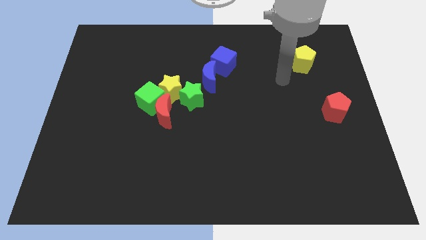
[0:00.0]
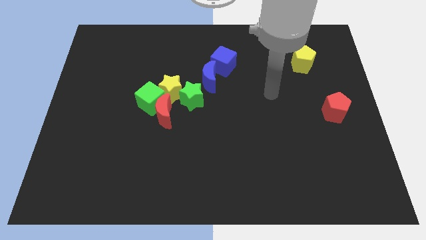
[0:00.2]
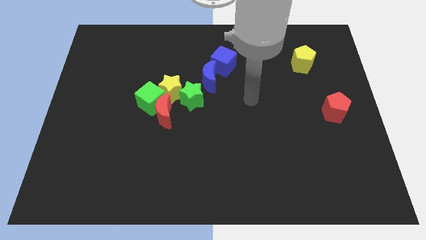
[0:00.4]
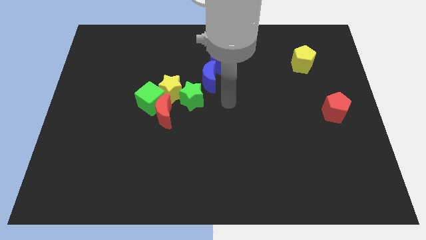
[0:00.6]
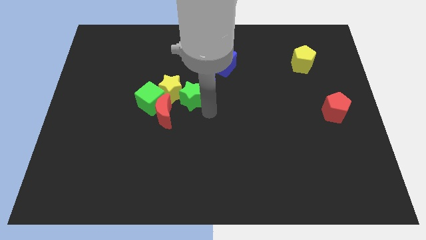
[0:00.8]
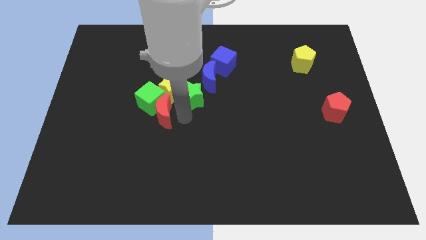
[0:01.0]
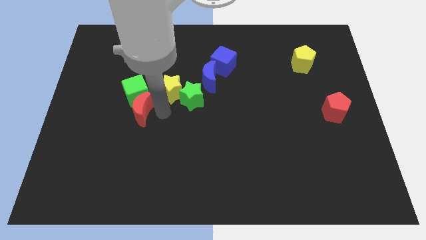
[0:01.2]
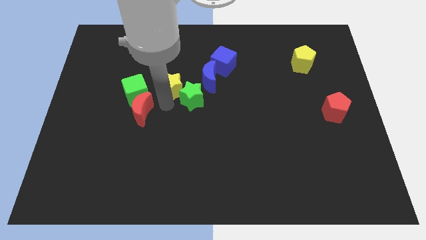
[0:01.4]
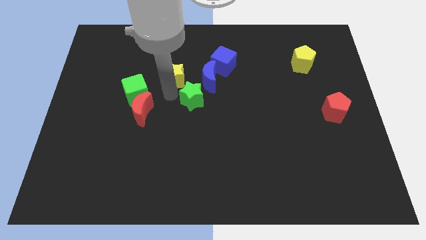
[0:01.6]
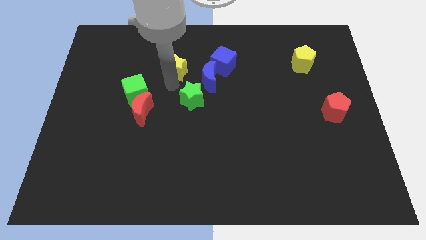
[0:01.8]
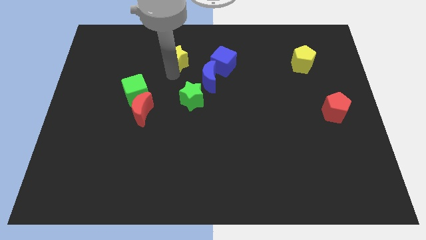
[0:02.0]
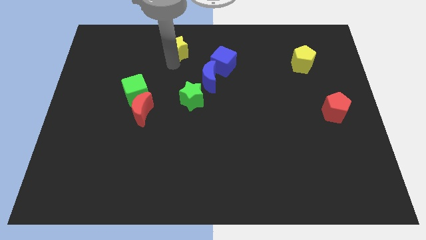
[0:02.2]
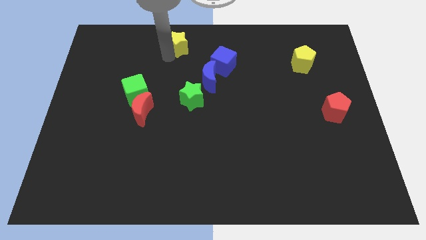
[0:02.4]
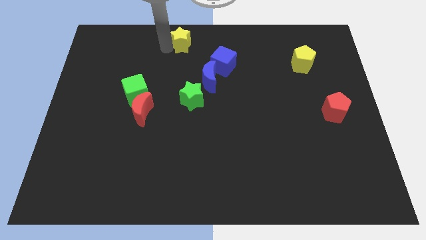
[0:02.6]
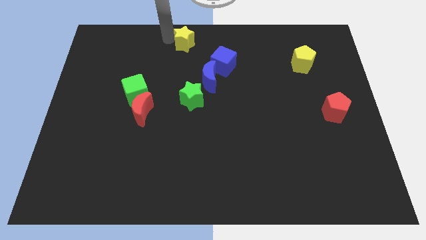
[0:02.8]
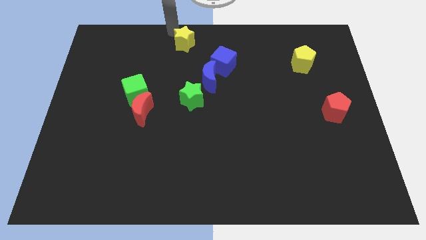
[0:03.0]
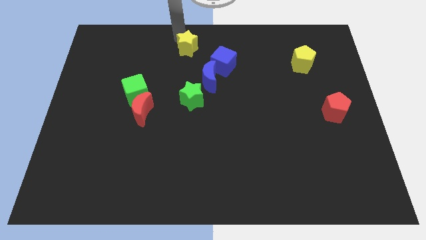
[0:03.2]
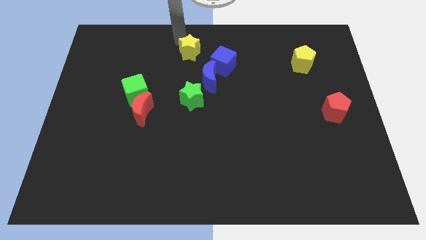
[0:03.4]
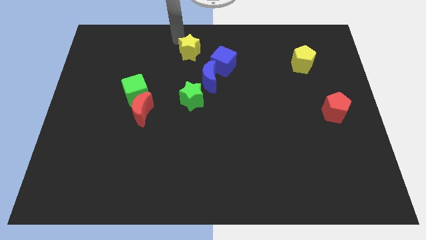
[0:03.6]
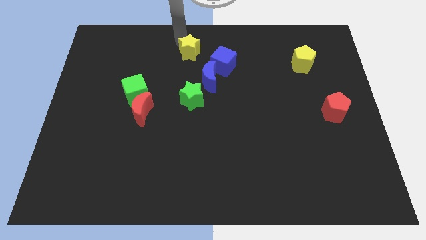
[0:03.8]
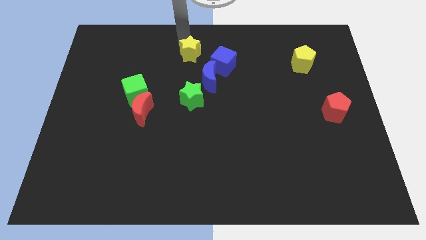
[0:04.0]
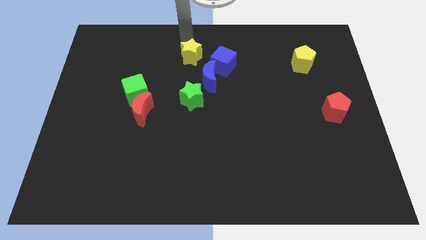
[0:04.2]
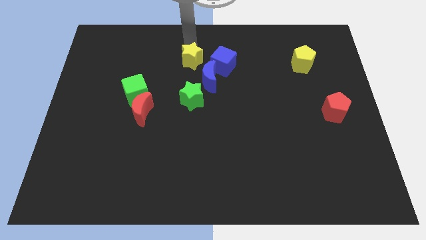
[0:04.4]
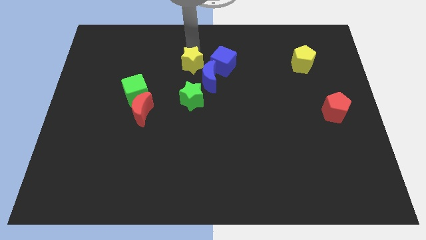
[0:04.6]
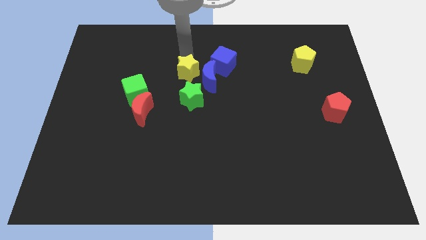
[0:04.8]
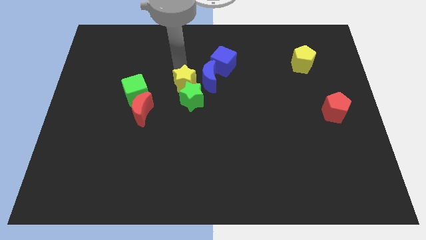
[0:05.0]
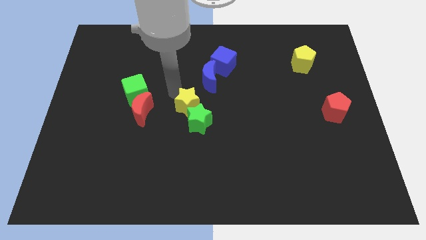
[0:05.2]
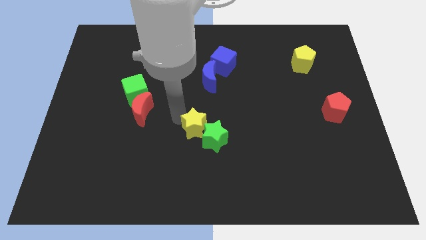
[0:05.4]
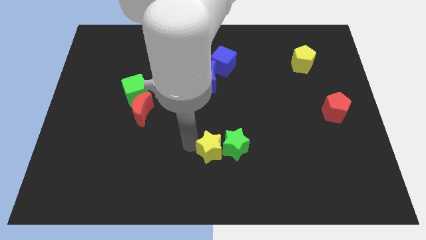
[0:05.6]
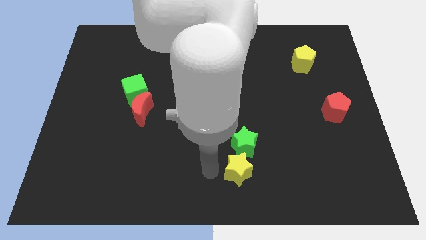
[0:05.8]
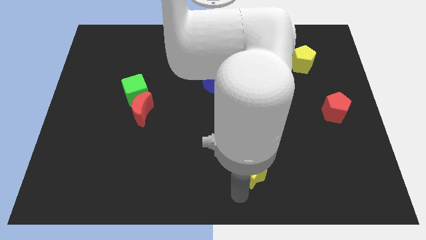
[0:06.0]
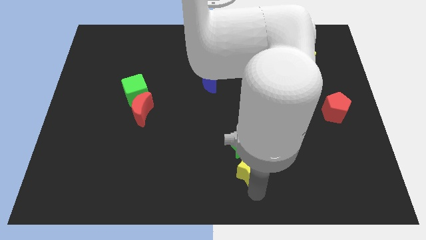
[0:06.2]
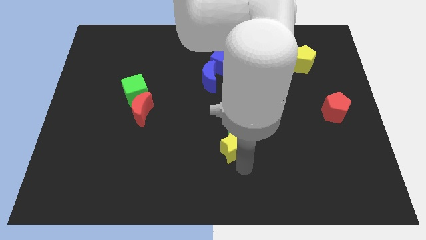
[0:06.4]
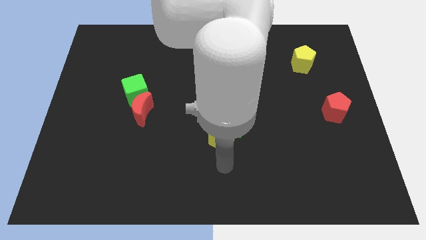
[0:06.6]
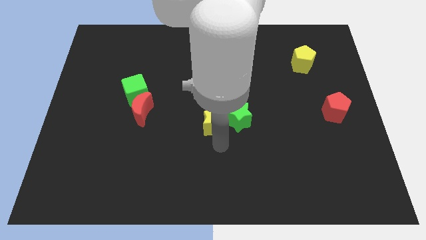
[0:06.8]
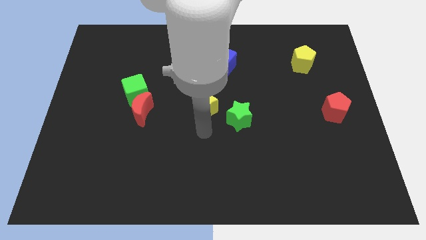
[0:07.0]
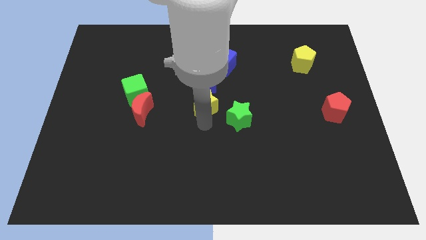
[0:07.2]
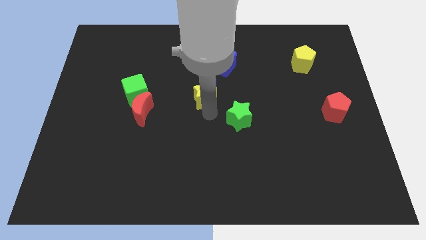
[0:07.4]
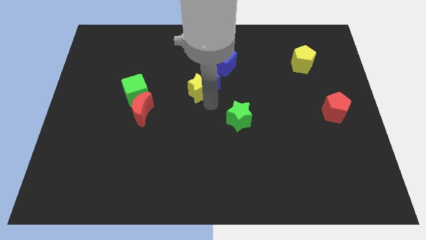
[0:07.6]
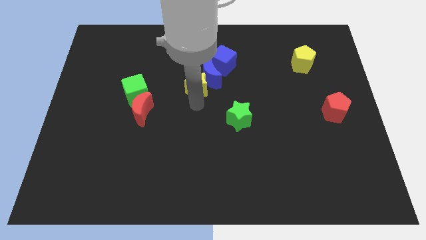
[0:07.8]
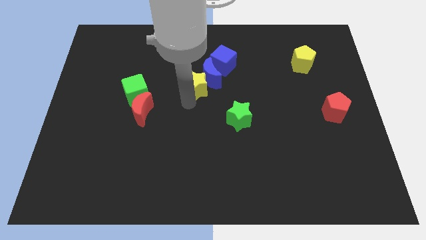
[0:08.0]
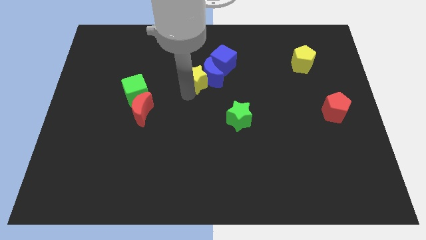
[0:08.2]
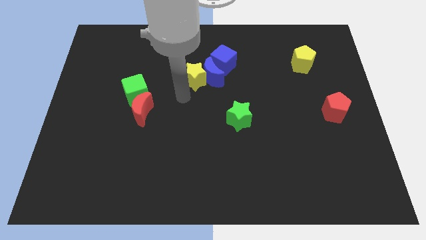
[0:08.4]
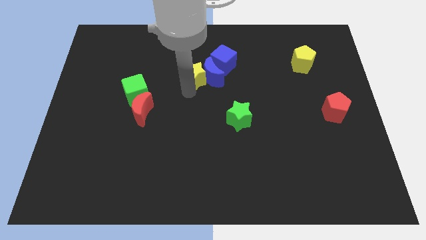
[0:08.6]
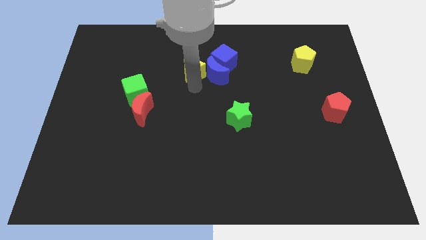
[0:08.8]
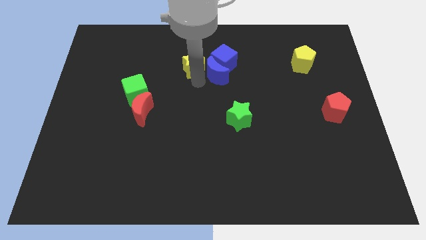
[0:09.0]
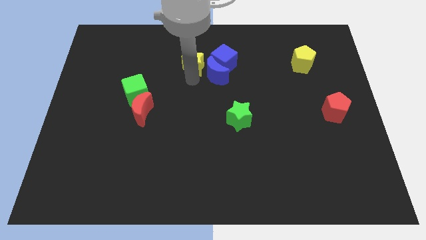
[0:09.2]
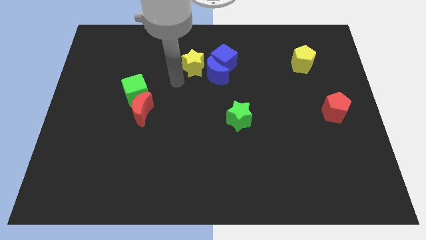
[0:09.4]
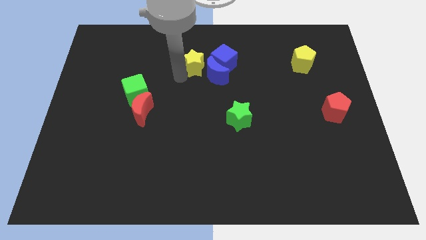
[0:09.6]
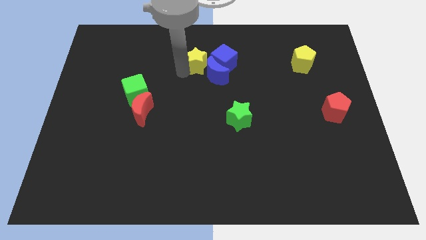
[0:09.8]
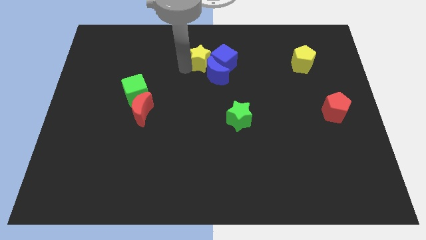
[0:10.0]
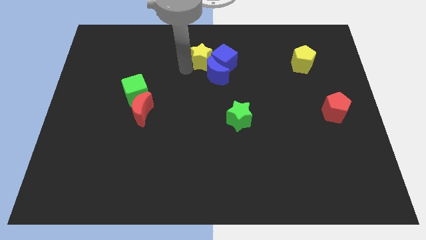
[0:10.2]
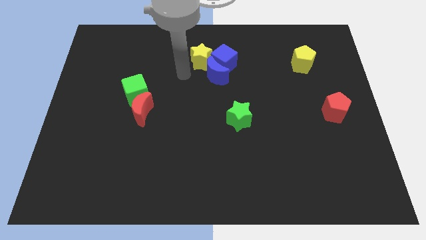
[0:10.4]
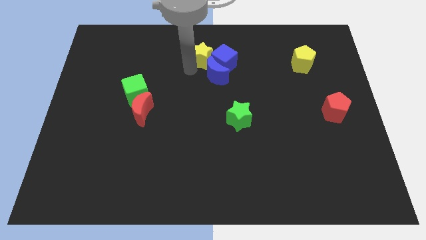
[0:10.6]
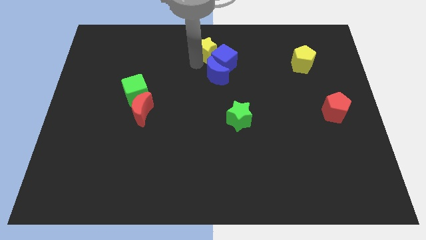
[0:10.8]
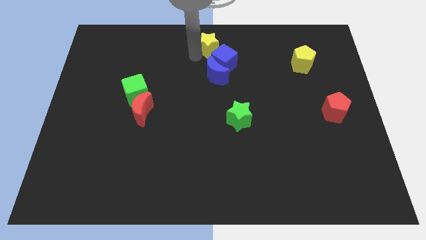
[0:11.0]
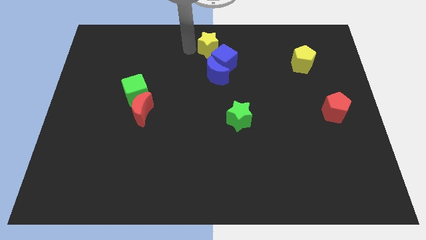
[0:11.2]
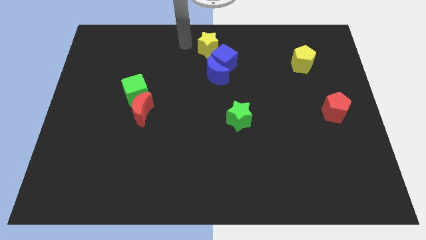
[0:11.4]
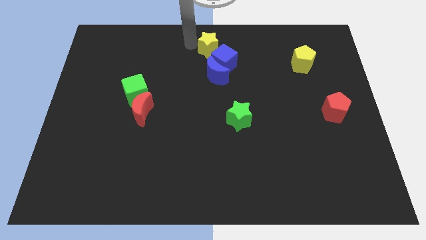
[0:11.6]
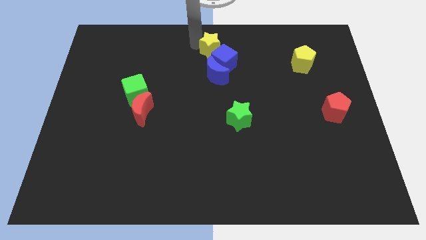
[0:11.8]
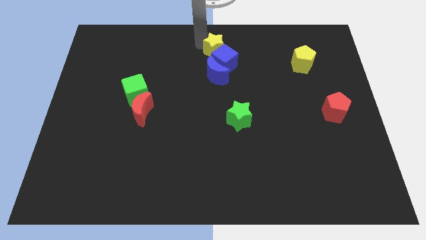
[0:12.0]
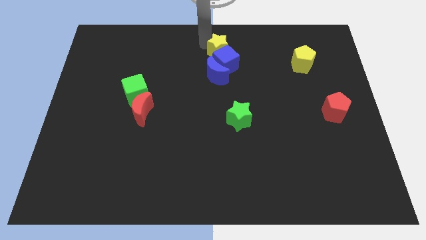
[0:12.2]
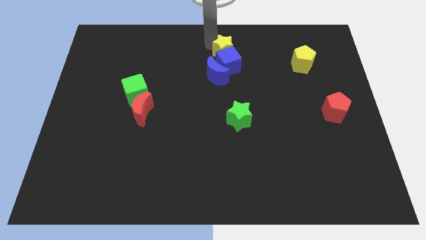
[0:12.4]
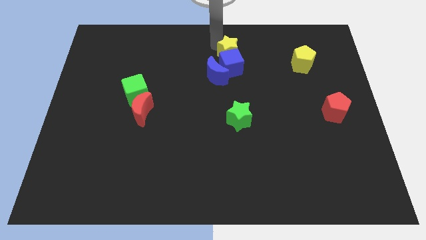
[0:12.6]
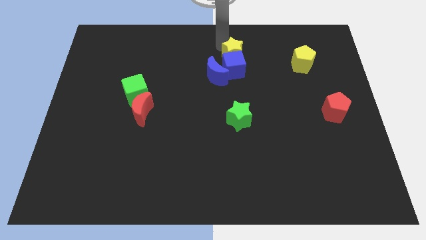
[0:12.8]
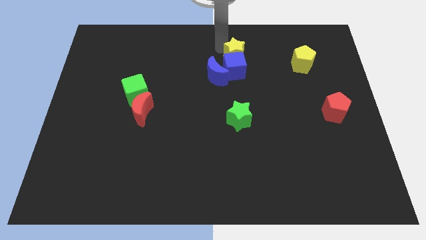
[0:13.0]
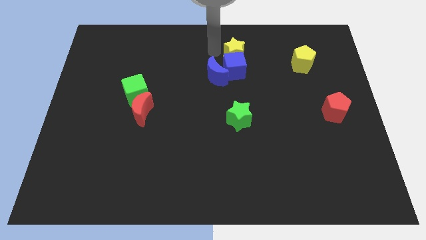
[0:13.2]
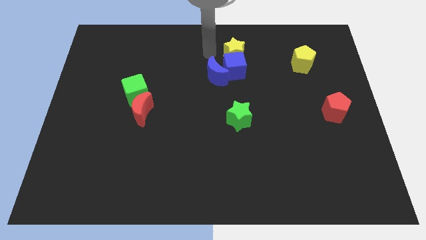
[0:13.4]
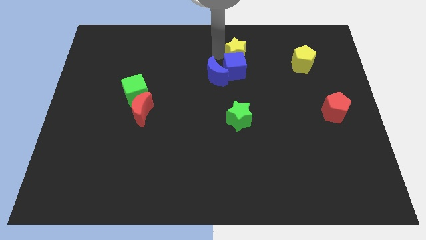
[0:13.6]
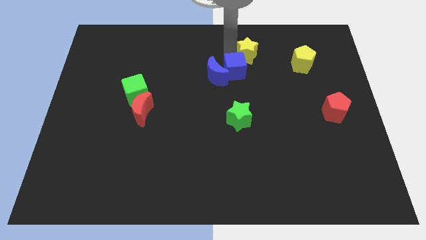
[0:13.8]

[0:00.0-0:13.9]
push the yellow star to the left of the yellow pentagon

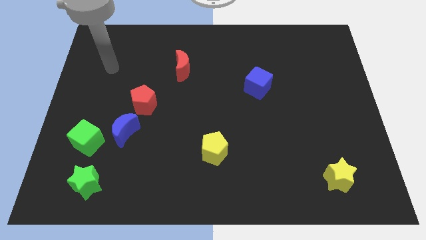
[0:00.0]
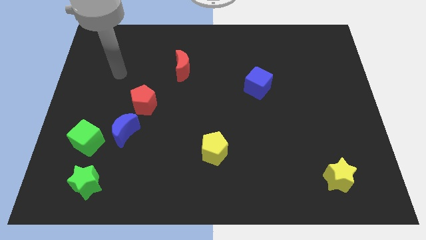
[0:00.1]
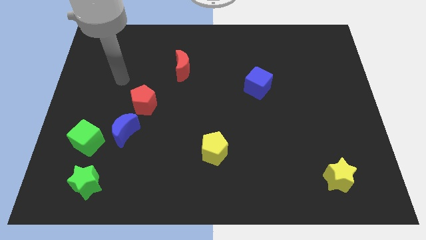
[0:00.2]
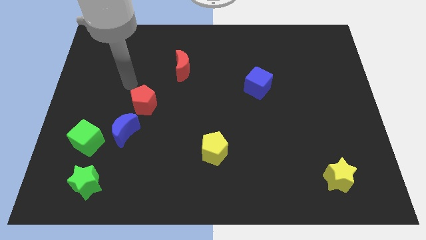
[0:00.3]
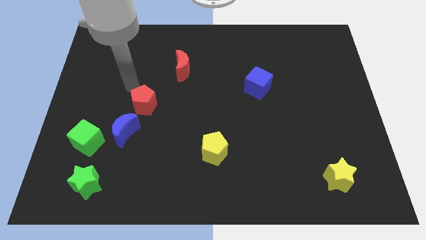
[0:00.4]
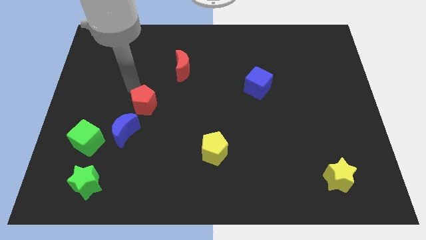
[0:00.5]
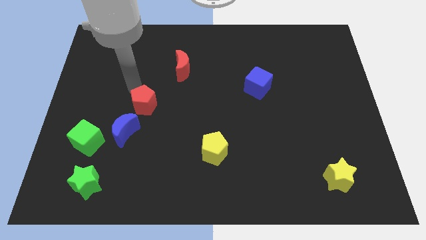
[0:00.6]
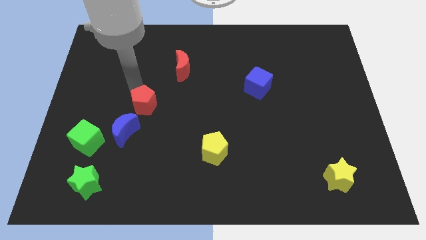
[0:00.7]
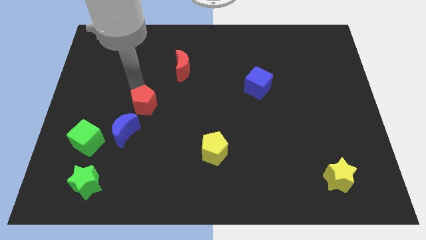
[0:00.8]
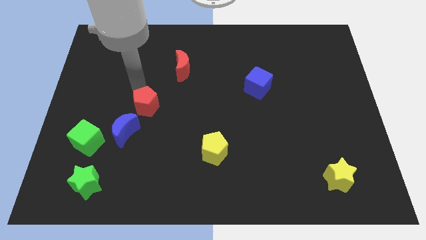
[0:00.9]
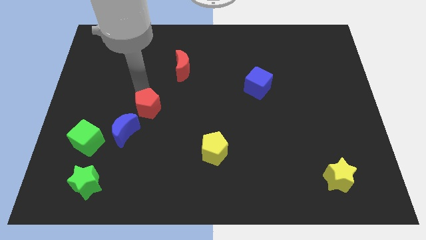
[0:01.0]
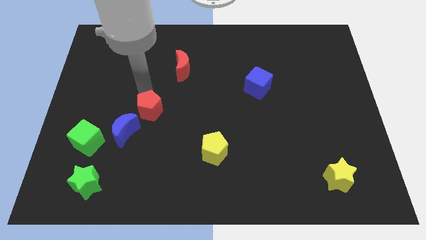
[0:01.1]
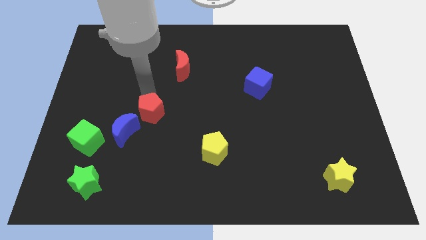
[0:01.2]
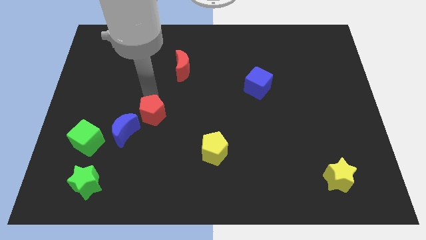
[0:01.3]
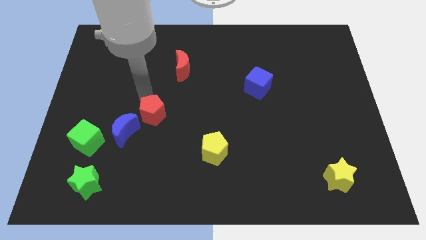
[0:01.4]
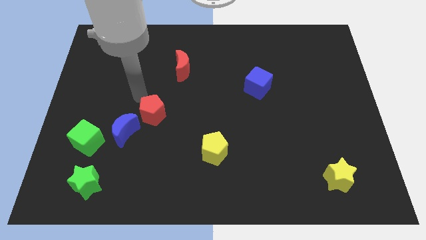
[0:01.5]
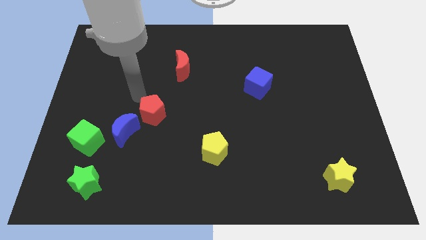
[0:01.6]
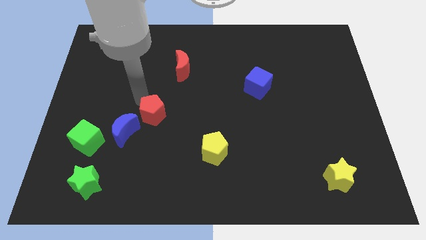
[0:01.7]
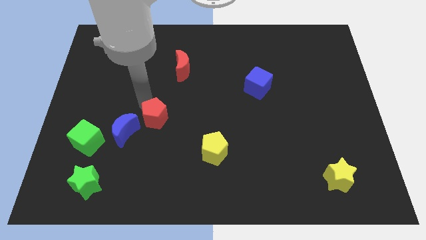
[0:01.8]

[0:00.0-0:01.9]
move the red pentagon right of the blue moon

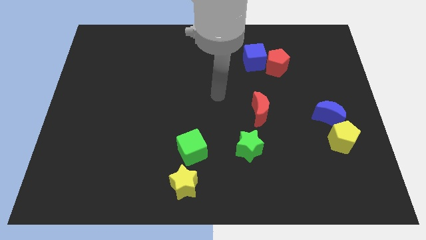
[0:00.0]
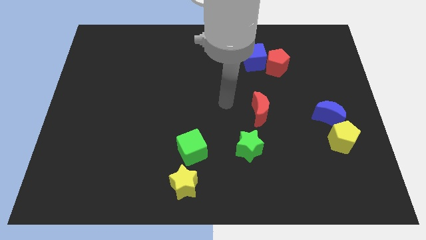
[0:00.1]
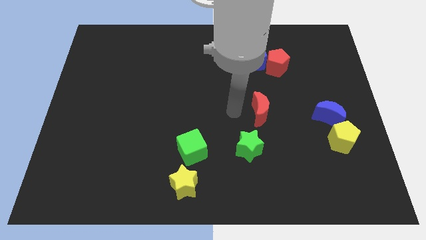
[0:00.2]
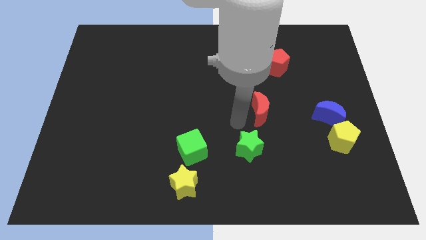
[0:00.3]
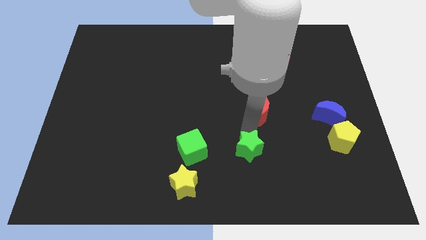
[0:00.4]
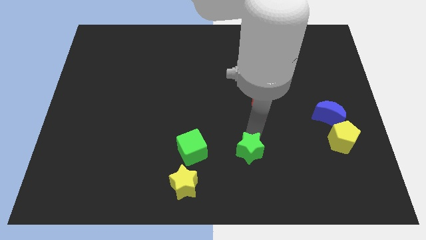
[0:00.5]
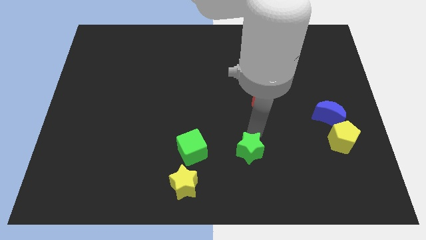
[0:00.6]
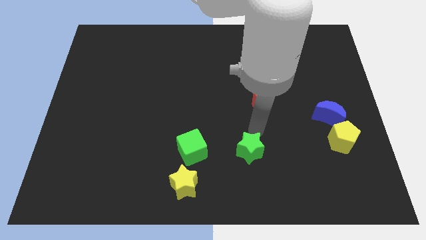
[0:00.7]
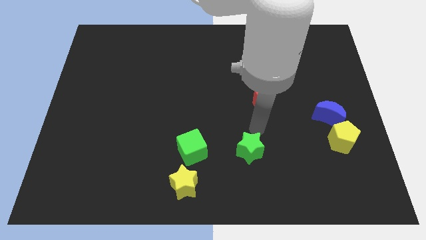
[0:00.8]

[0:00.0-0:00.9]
put the red moon below the blue cube
